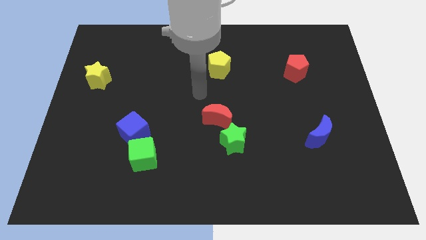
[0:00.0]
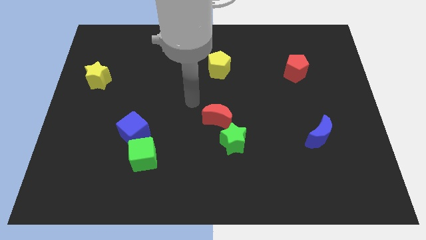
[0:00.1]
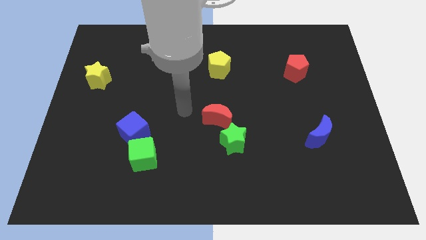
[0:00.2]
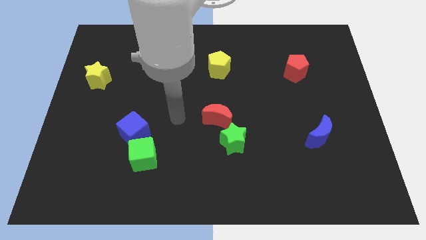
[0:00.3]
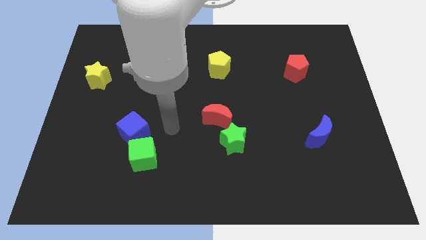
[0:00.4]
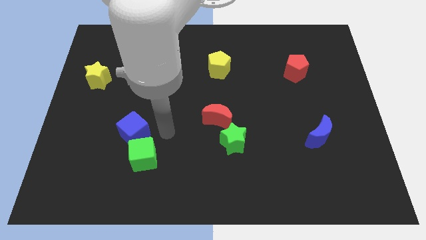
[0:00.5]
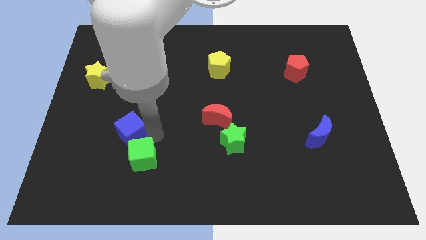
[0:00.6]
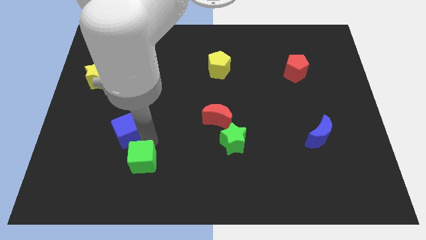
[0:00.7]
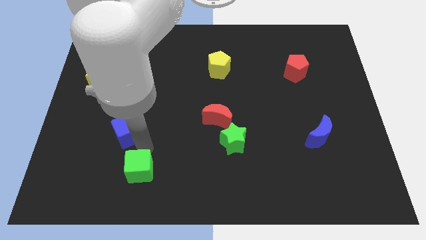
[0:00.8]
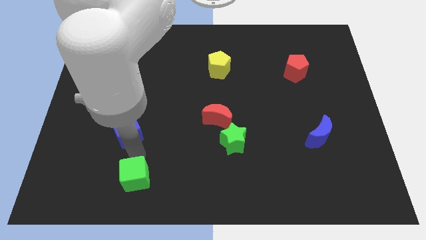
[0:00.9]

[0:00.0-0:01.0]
pull the blue cube apart from the green cube

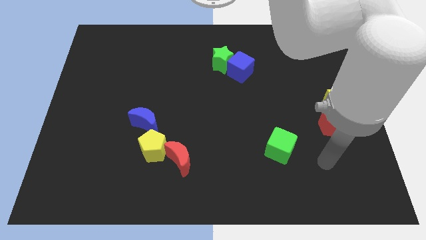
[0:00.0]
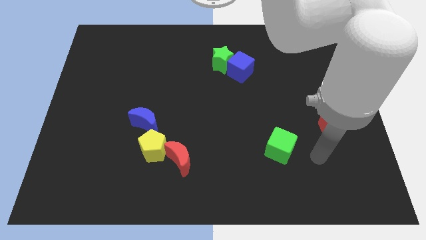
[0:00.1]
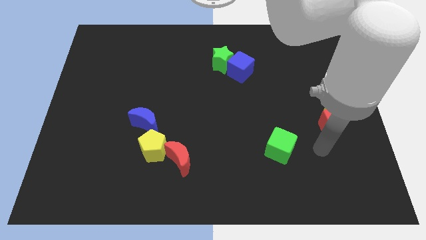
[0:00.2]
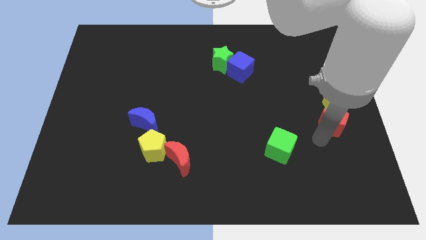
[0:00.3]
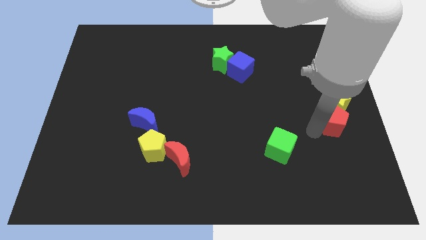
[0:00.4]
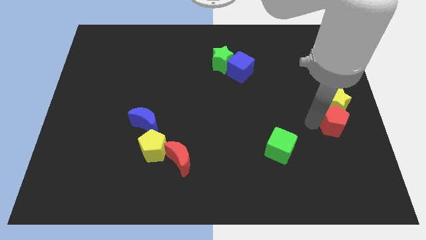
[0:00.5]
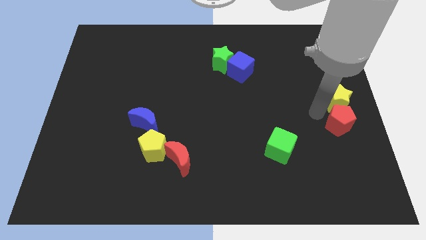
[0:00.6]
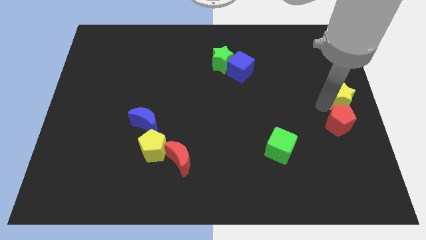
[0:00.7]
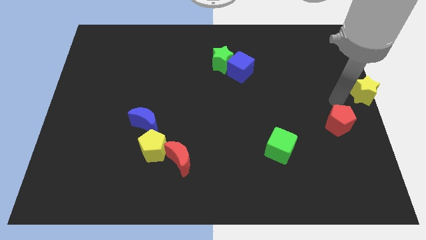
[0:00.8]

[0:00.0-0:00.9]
separate the red pentagon from the yellow star

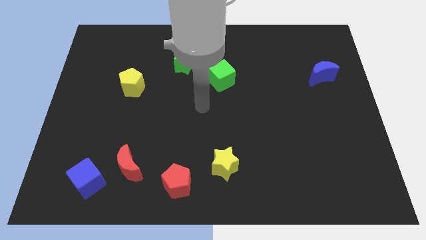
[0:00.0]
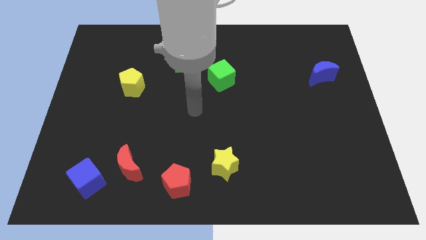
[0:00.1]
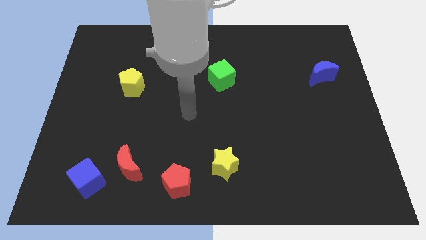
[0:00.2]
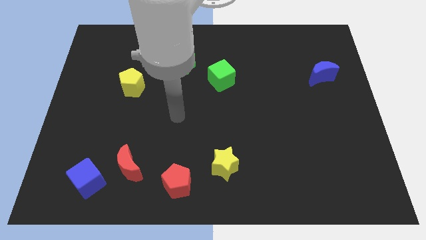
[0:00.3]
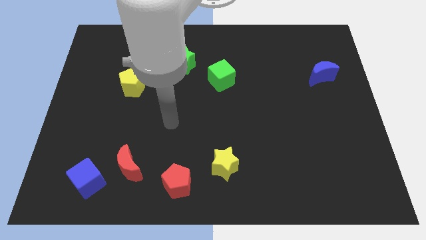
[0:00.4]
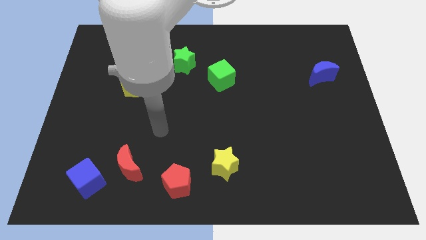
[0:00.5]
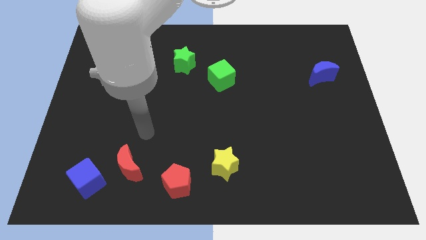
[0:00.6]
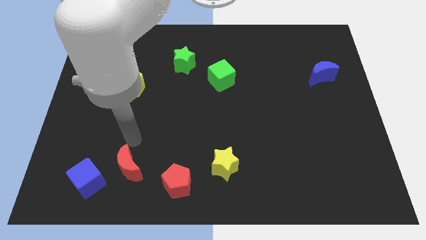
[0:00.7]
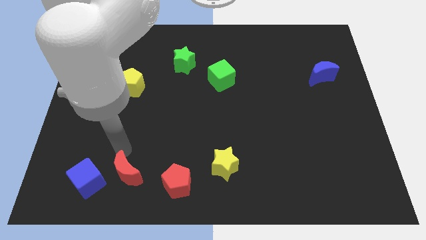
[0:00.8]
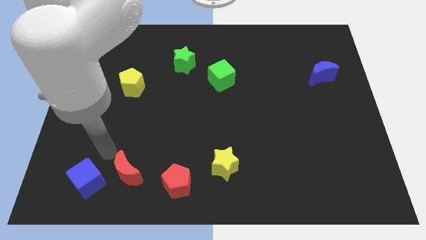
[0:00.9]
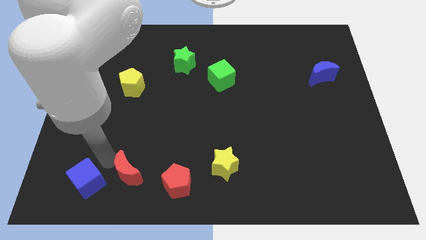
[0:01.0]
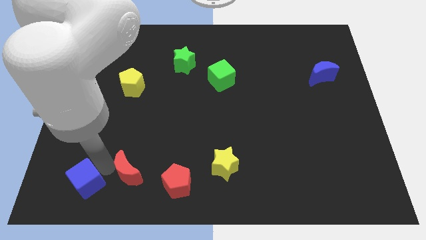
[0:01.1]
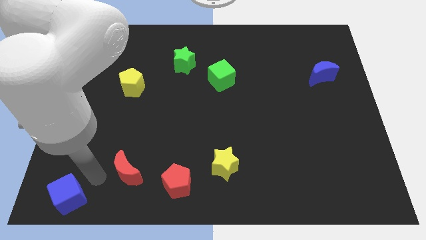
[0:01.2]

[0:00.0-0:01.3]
move the red moon away from the blue cube

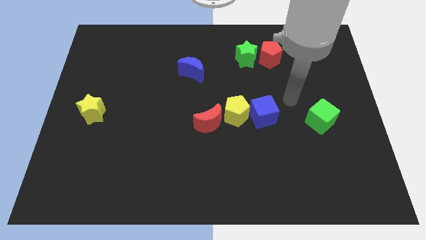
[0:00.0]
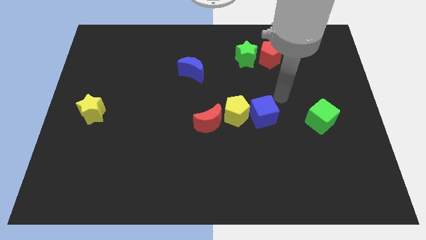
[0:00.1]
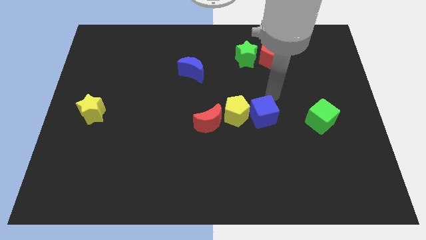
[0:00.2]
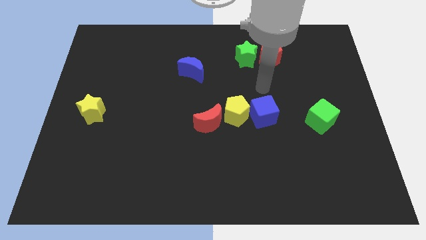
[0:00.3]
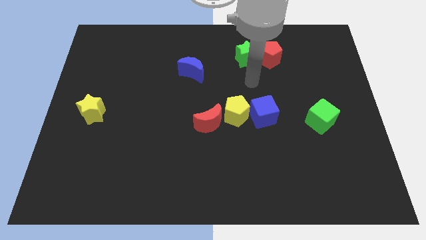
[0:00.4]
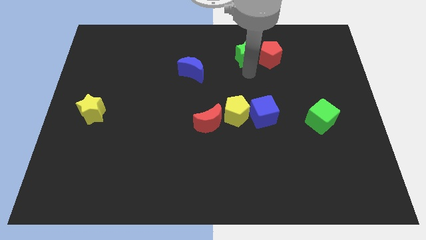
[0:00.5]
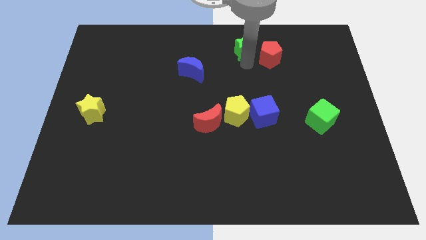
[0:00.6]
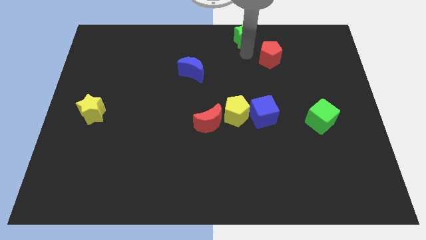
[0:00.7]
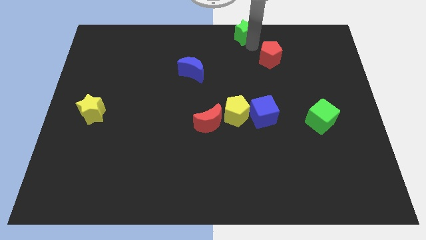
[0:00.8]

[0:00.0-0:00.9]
pull the red pentagon apart from the green star

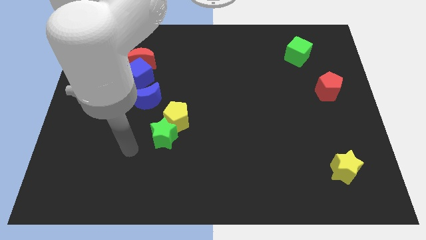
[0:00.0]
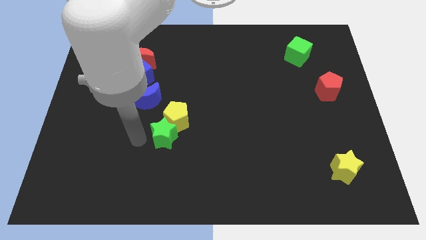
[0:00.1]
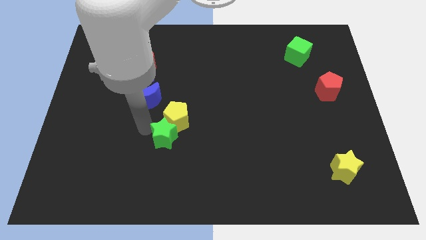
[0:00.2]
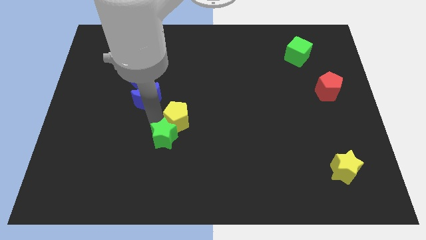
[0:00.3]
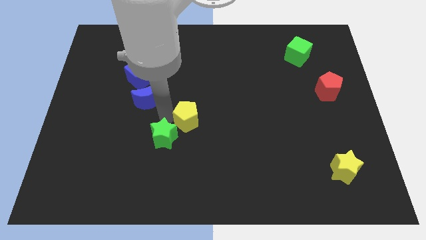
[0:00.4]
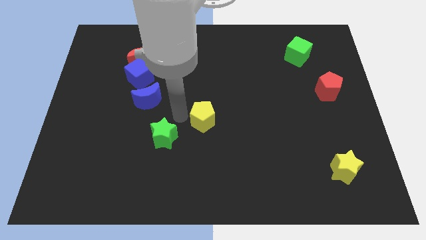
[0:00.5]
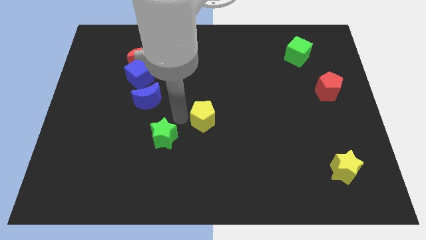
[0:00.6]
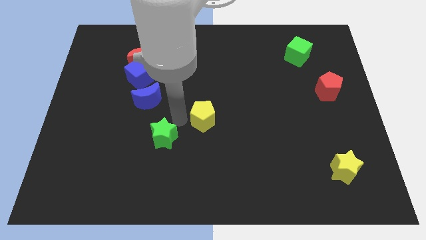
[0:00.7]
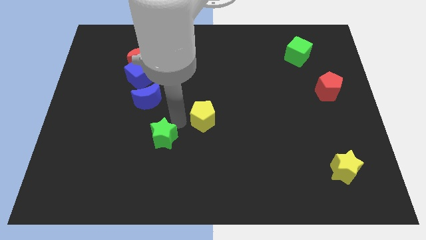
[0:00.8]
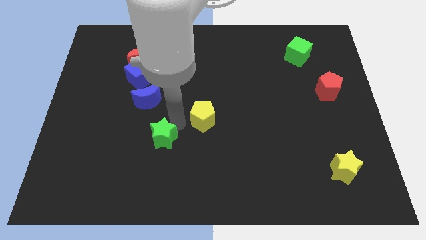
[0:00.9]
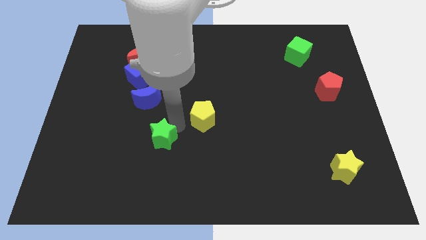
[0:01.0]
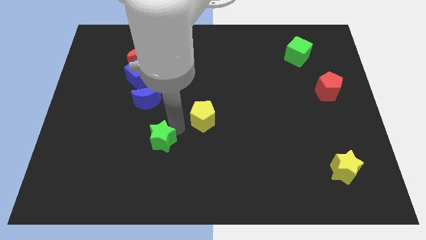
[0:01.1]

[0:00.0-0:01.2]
move the green star away from the yellow pentagon

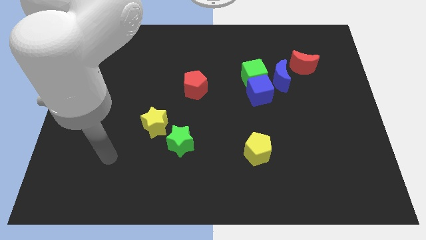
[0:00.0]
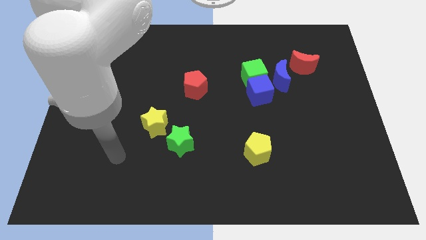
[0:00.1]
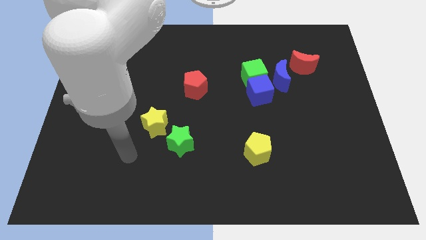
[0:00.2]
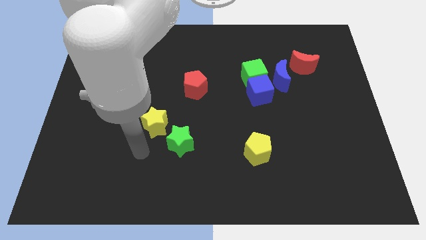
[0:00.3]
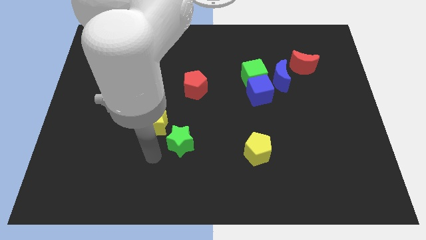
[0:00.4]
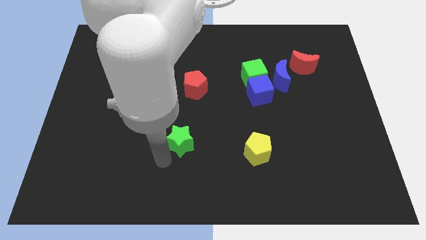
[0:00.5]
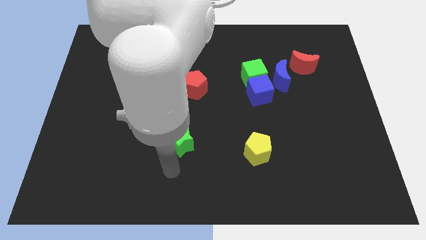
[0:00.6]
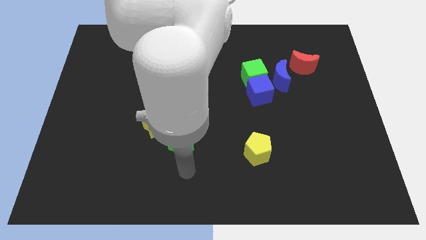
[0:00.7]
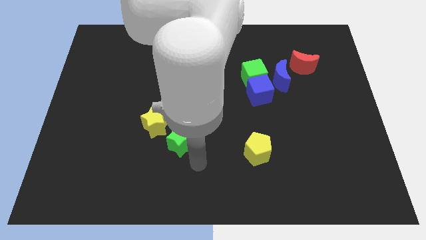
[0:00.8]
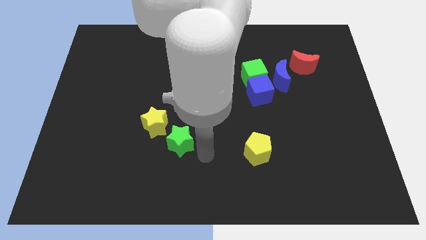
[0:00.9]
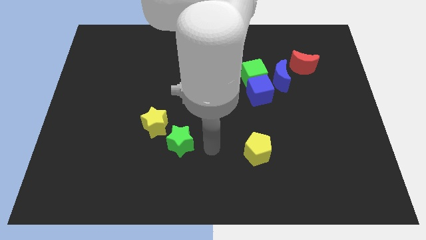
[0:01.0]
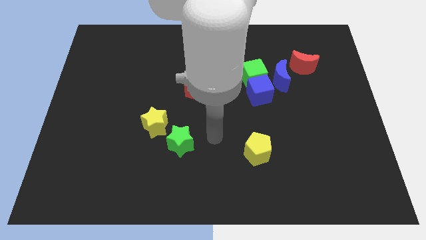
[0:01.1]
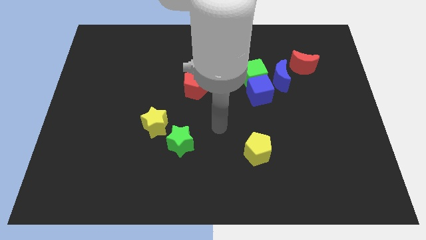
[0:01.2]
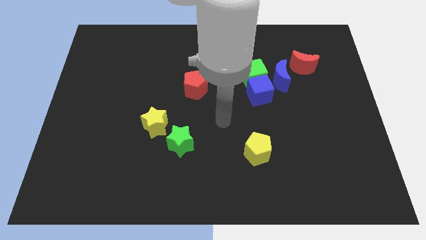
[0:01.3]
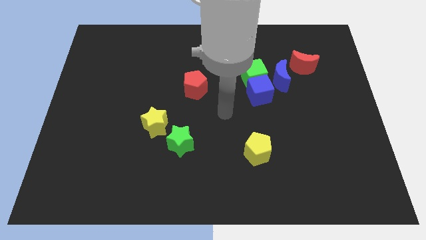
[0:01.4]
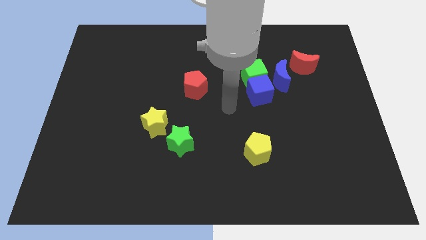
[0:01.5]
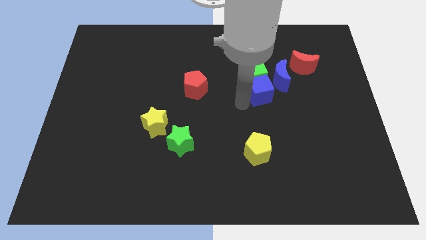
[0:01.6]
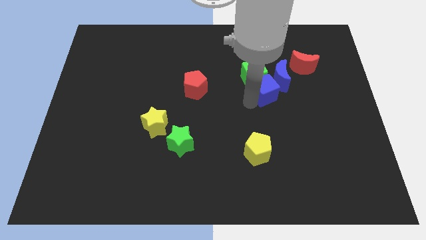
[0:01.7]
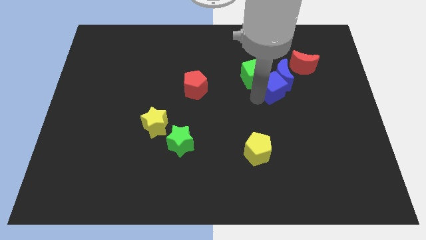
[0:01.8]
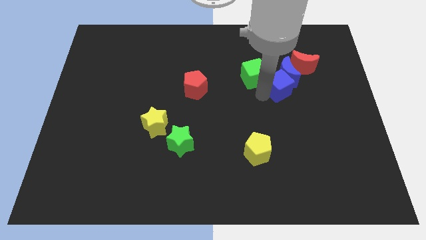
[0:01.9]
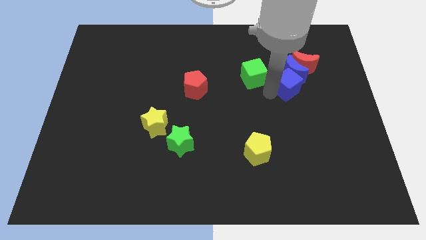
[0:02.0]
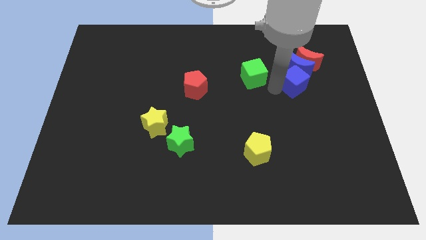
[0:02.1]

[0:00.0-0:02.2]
move the green cube away from the blue cube and blue moon

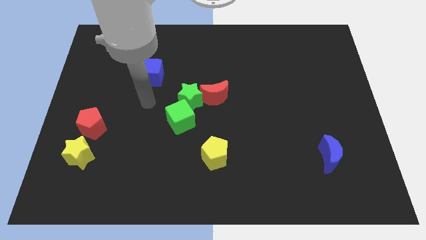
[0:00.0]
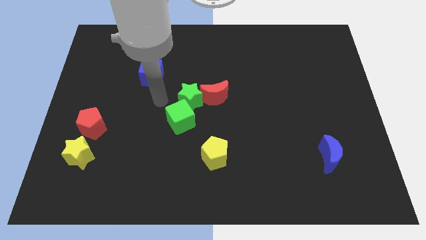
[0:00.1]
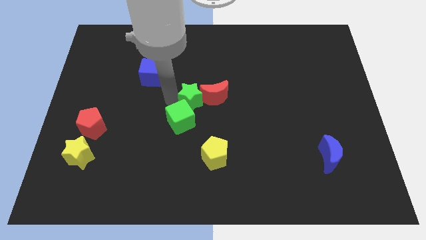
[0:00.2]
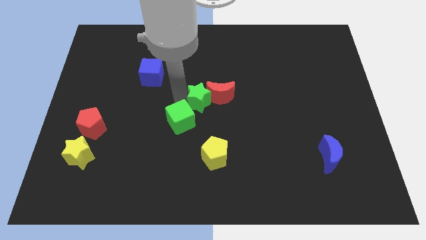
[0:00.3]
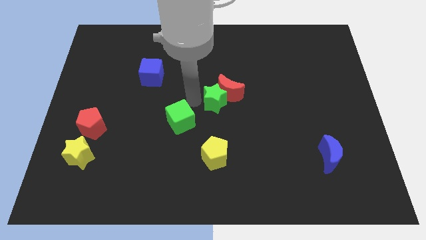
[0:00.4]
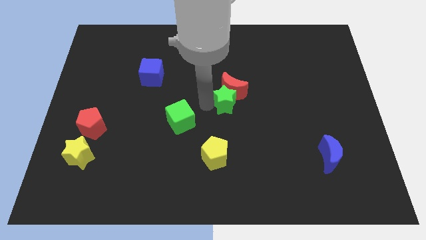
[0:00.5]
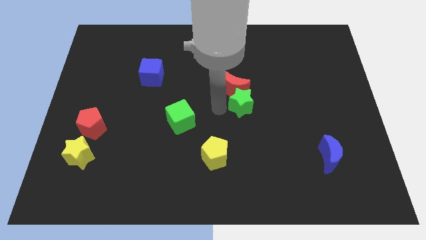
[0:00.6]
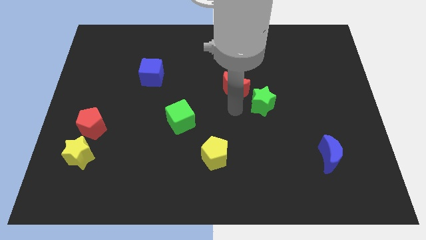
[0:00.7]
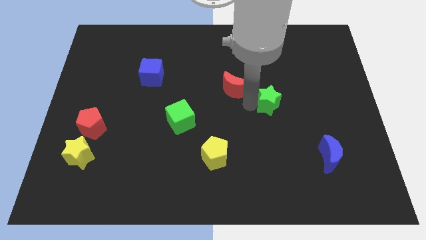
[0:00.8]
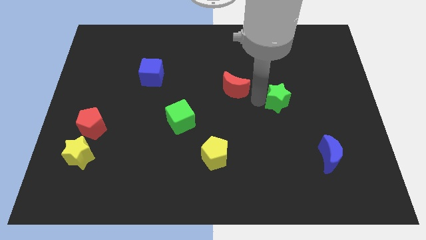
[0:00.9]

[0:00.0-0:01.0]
move the red moon away from the green star

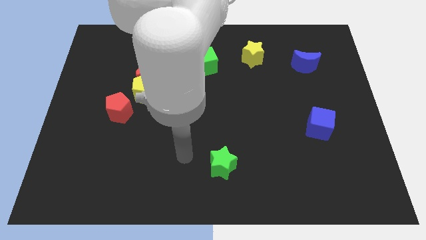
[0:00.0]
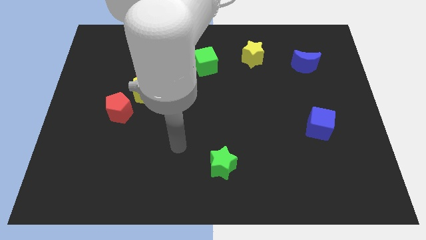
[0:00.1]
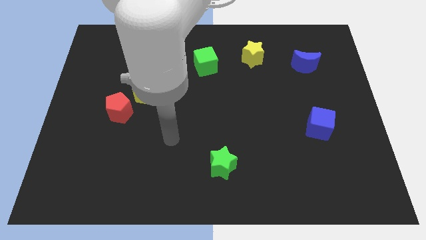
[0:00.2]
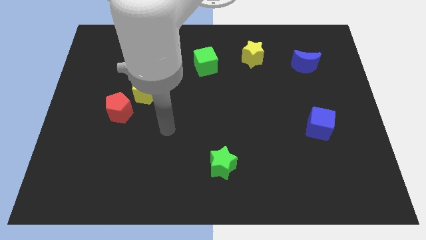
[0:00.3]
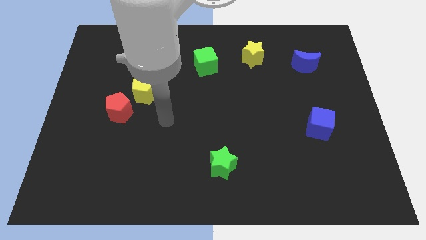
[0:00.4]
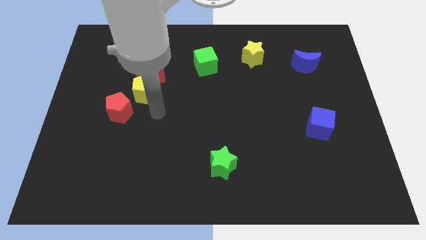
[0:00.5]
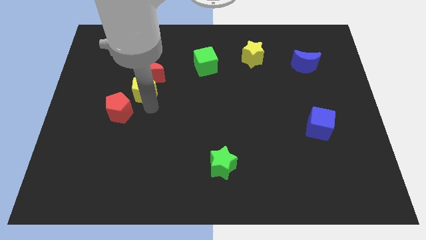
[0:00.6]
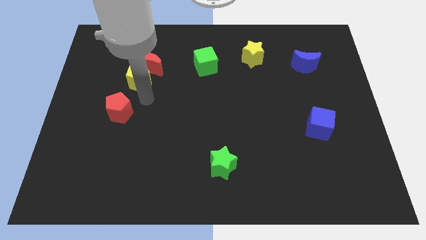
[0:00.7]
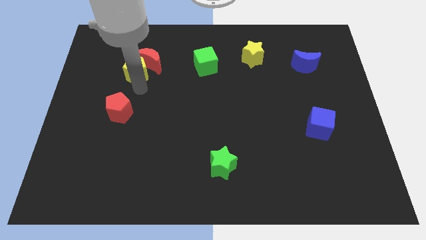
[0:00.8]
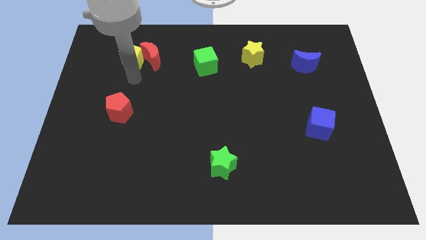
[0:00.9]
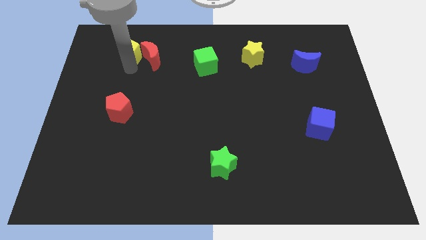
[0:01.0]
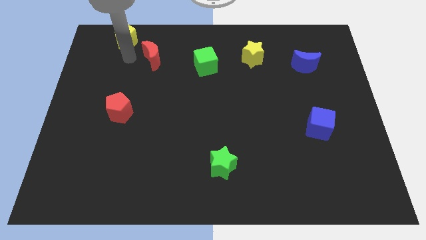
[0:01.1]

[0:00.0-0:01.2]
separate the red moon from the yellow pentagon
